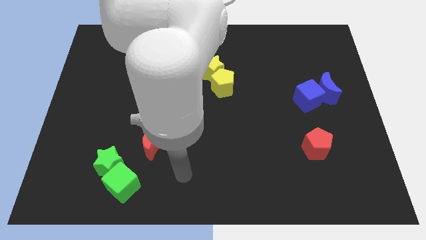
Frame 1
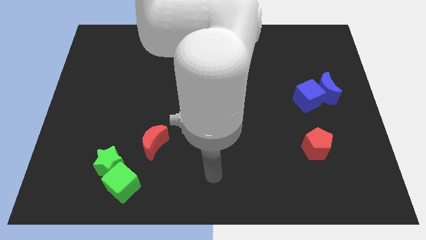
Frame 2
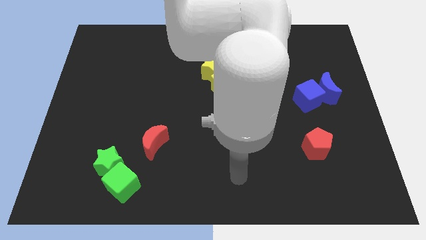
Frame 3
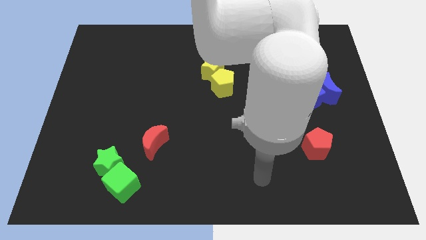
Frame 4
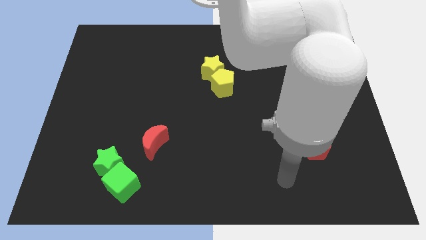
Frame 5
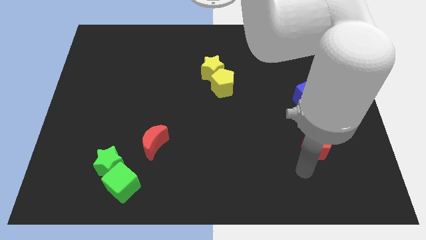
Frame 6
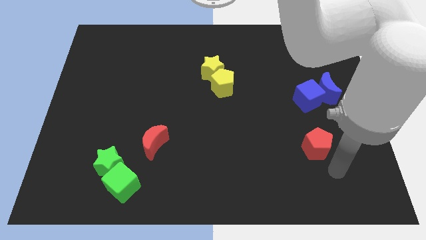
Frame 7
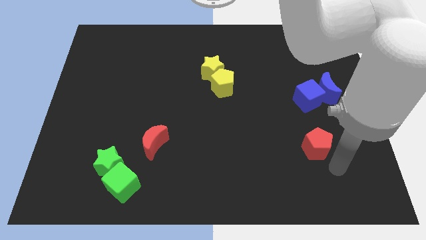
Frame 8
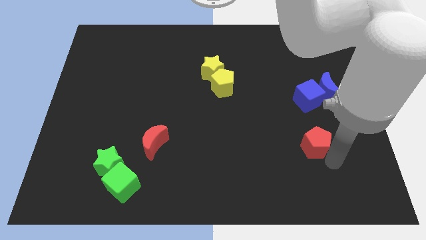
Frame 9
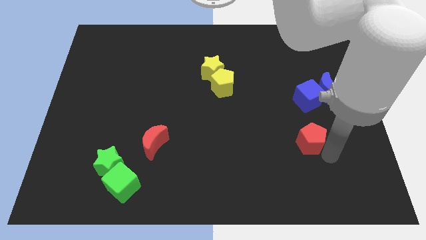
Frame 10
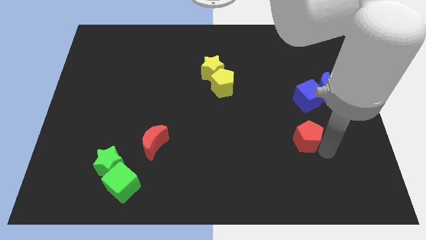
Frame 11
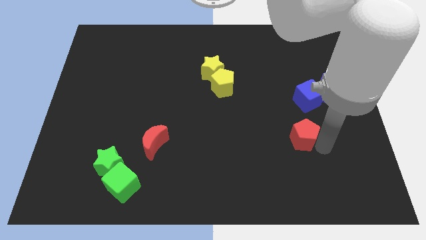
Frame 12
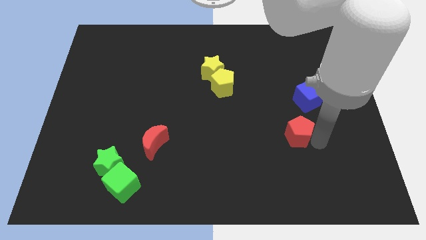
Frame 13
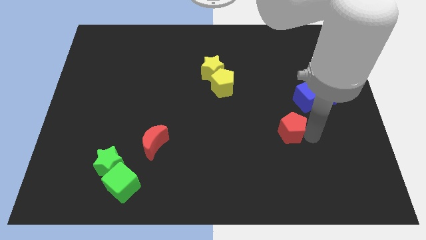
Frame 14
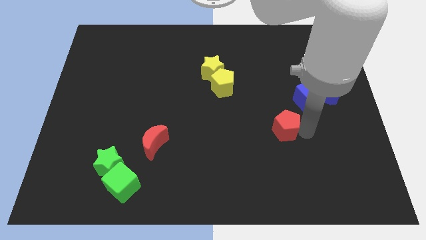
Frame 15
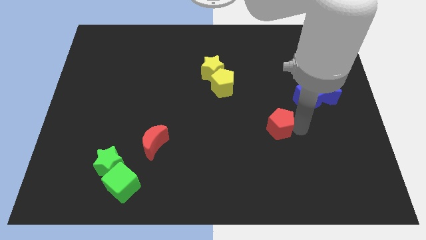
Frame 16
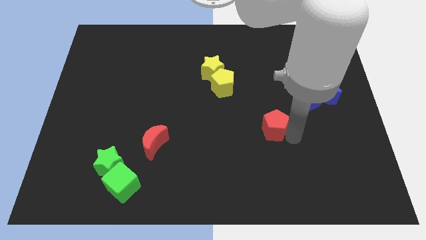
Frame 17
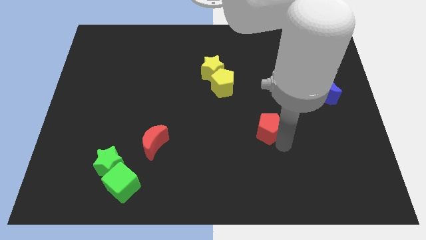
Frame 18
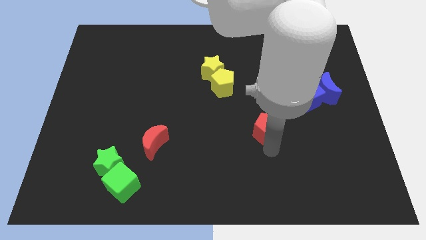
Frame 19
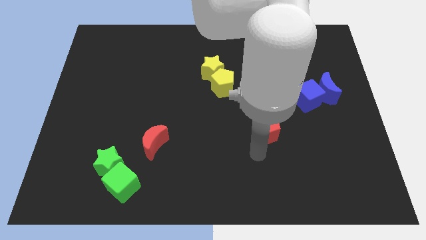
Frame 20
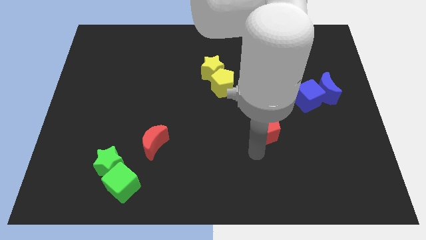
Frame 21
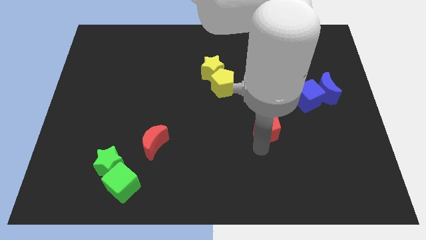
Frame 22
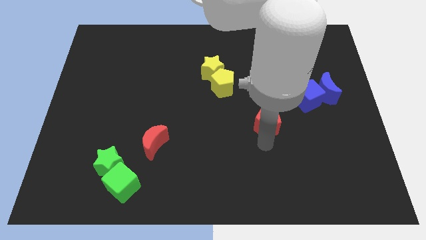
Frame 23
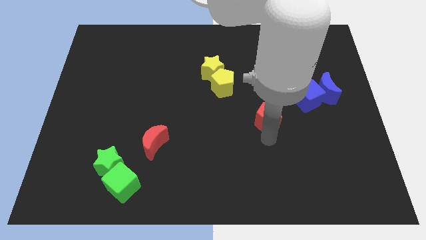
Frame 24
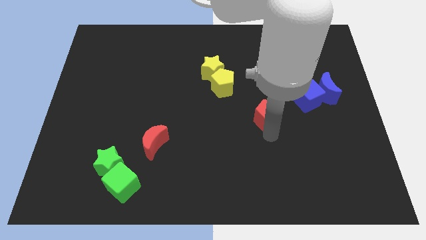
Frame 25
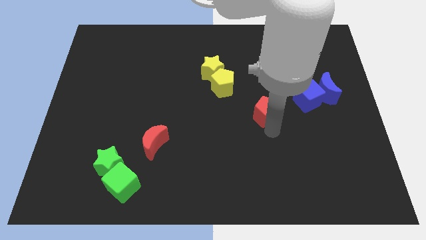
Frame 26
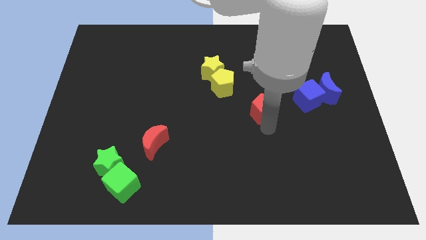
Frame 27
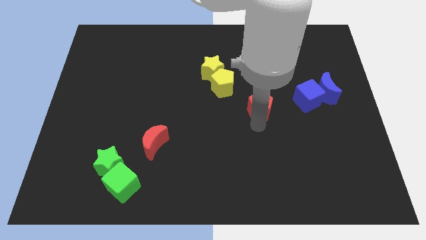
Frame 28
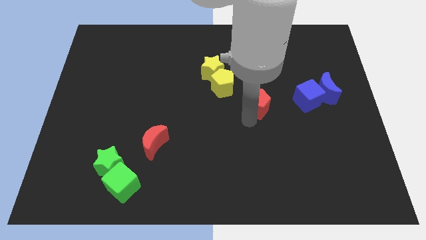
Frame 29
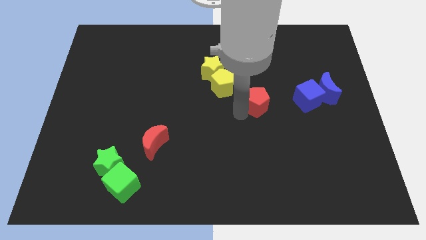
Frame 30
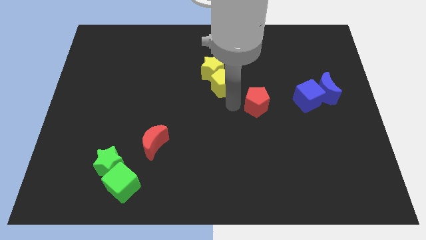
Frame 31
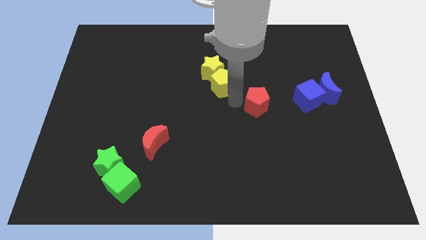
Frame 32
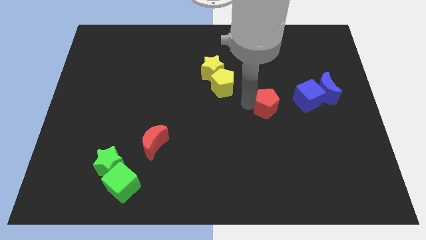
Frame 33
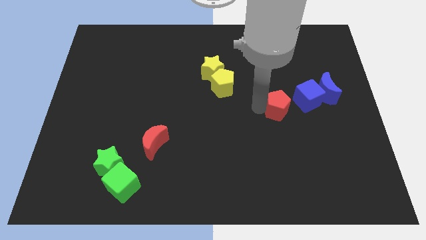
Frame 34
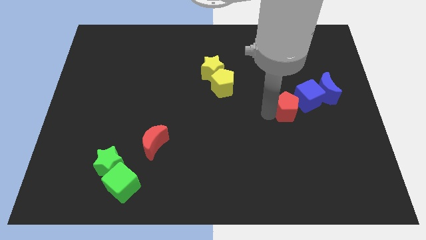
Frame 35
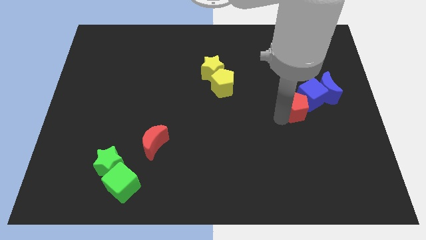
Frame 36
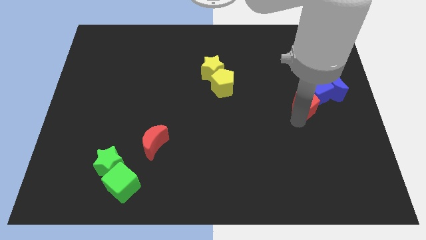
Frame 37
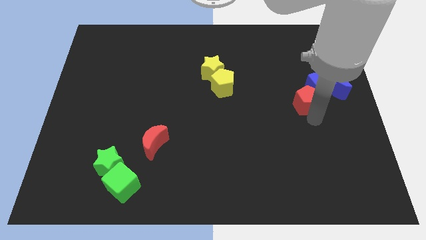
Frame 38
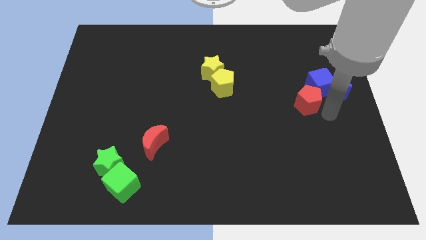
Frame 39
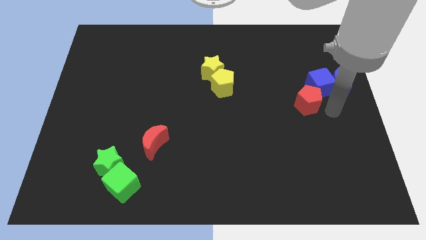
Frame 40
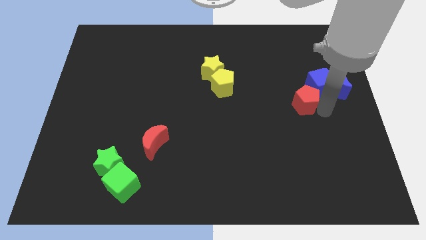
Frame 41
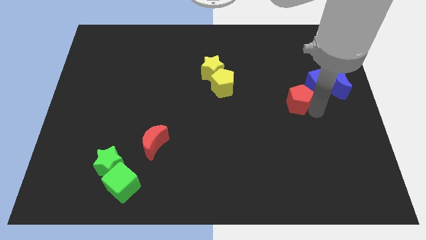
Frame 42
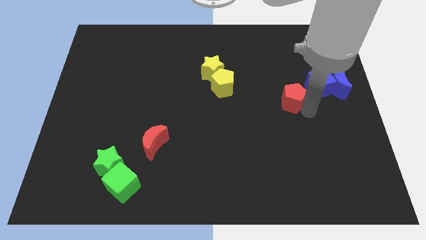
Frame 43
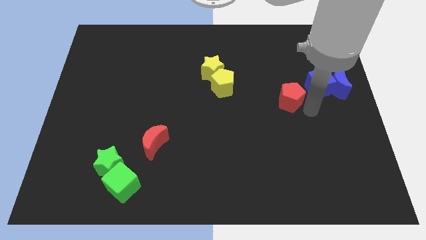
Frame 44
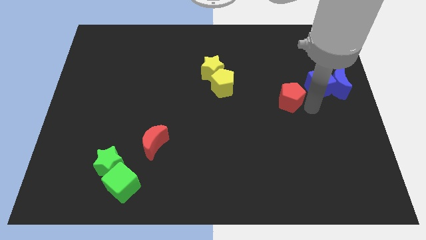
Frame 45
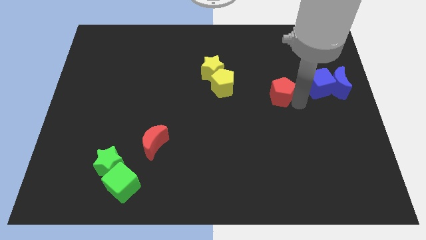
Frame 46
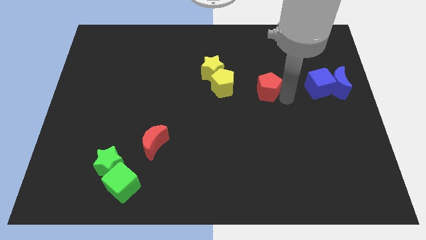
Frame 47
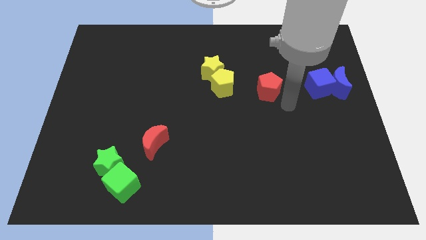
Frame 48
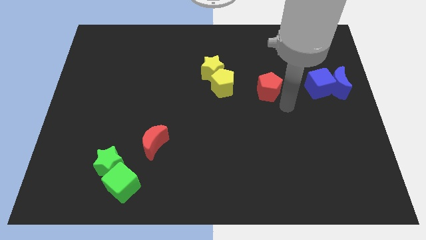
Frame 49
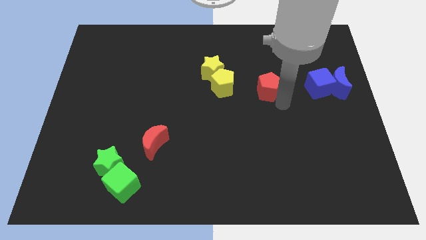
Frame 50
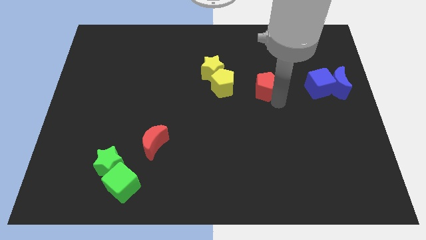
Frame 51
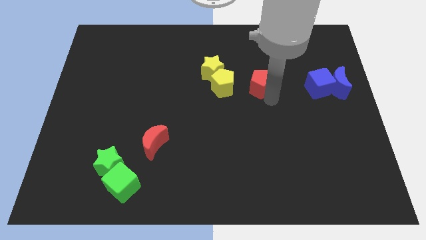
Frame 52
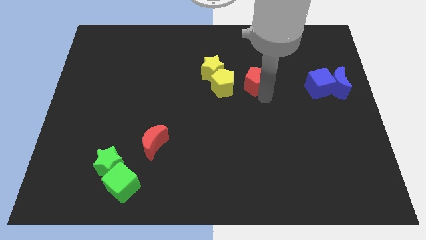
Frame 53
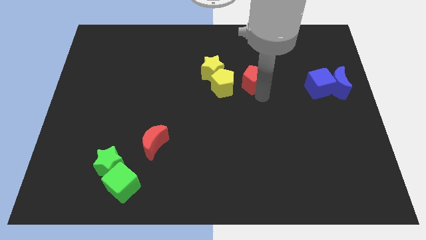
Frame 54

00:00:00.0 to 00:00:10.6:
push the red pentagon to the top right of the yellow pentagon

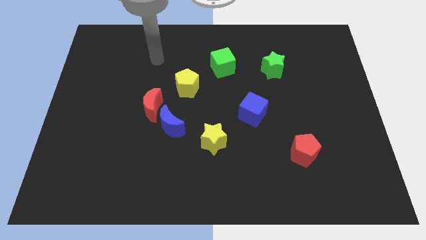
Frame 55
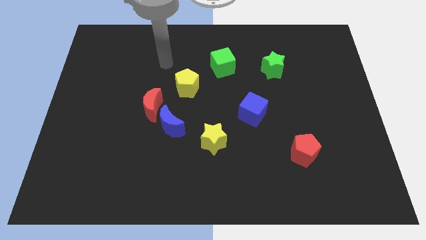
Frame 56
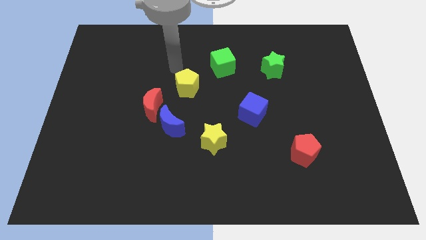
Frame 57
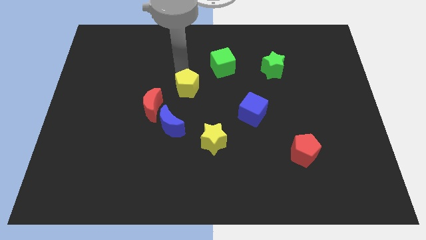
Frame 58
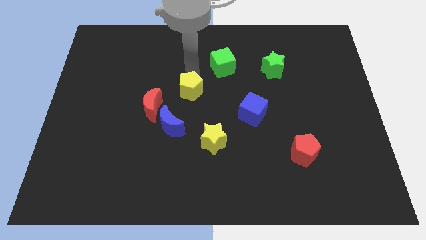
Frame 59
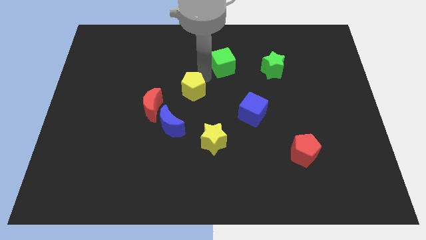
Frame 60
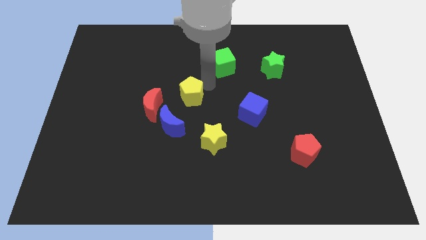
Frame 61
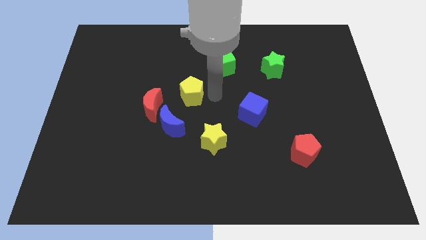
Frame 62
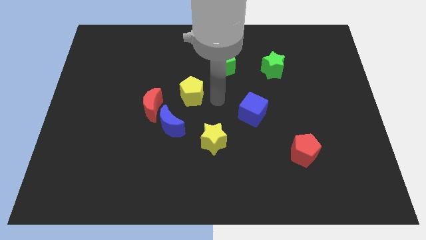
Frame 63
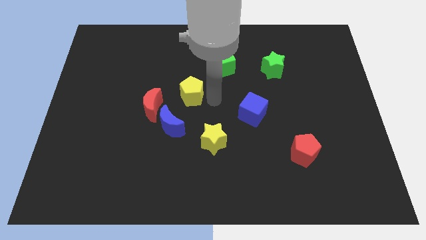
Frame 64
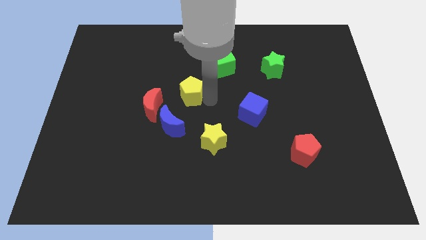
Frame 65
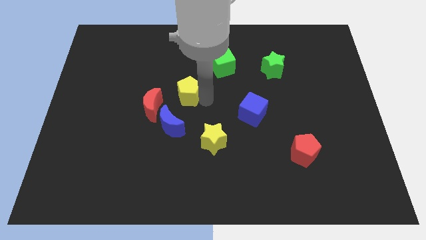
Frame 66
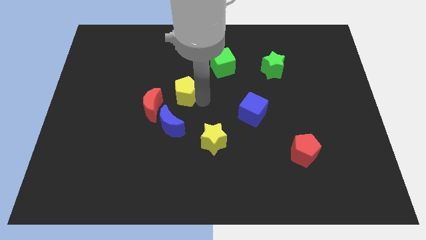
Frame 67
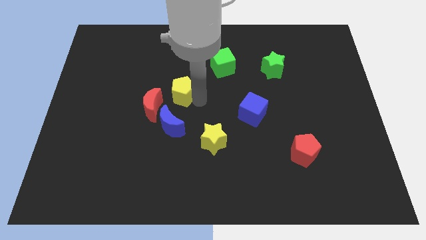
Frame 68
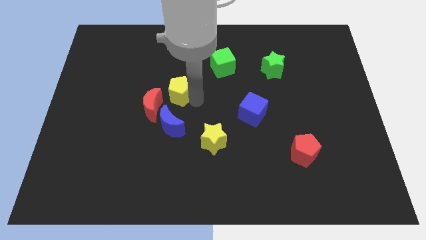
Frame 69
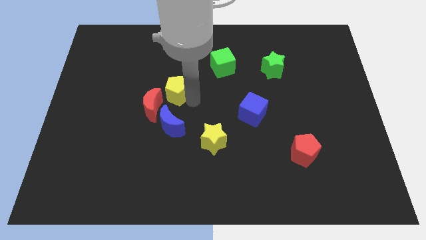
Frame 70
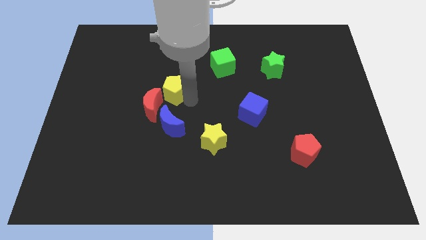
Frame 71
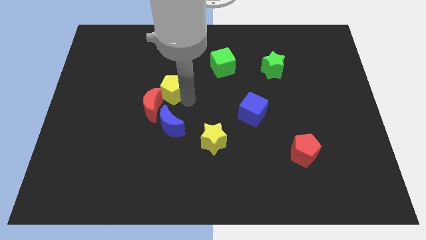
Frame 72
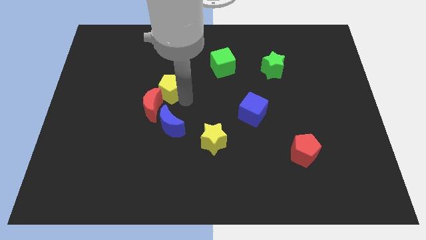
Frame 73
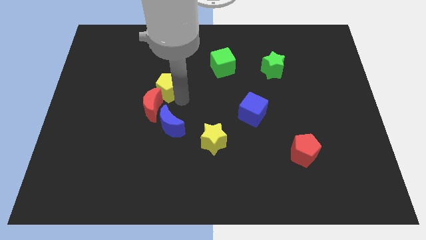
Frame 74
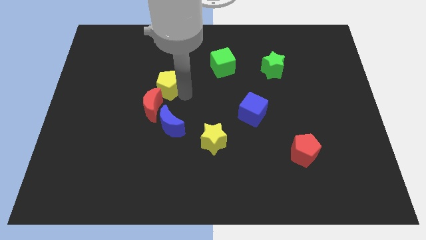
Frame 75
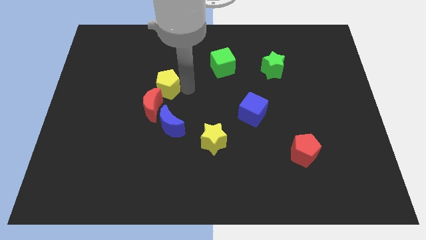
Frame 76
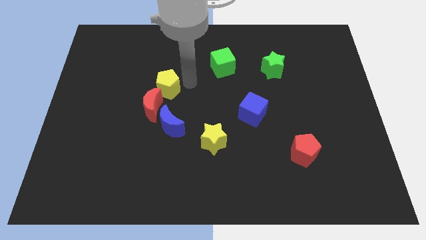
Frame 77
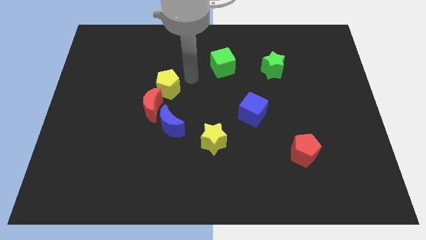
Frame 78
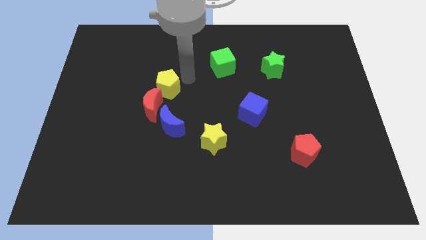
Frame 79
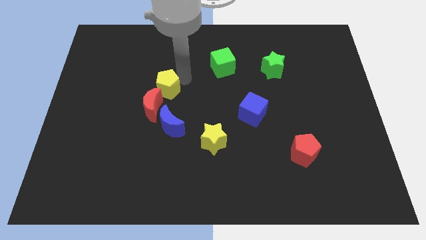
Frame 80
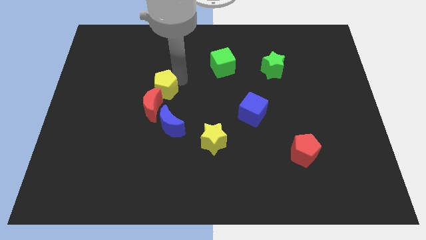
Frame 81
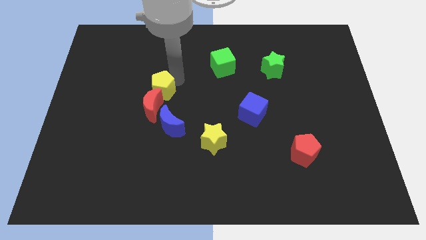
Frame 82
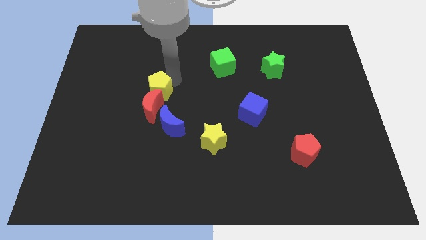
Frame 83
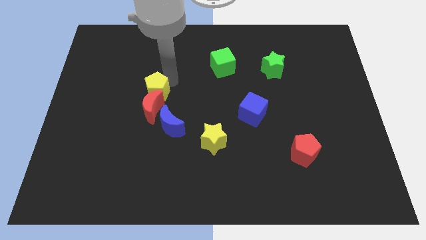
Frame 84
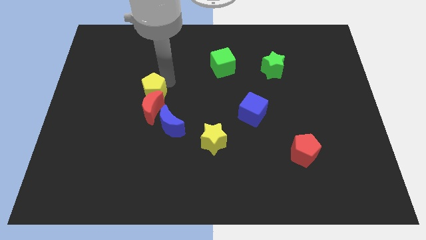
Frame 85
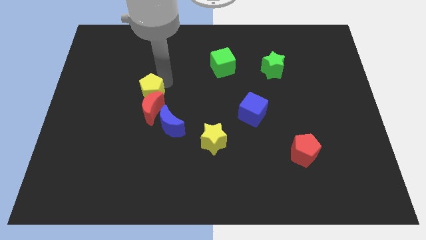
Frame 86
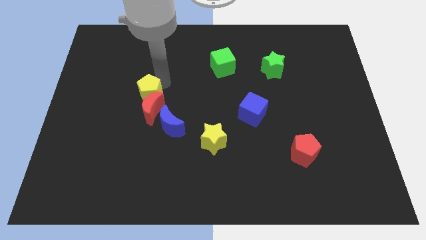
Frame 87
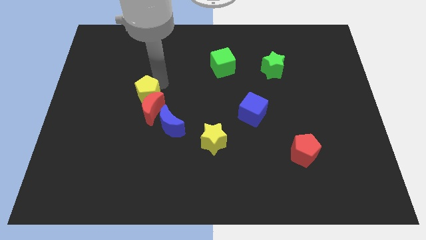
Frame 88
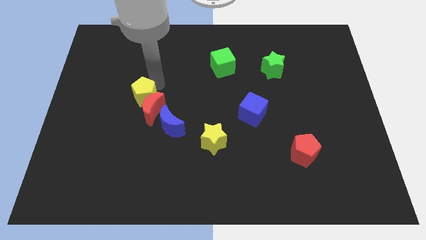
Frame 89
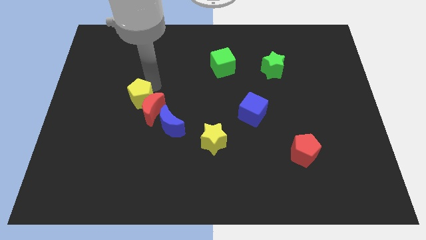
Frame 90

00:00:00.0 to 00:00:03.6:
slide the yellow pentagon to the left side of the red moon
